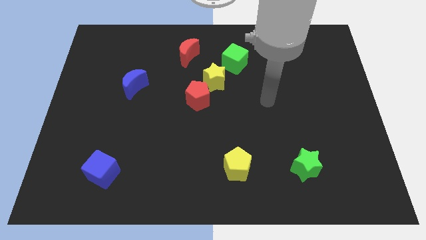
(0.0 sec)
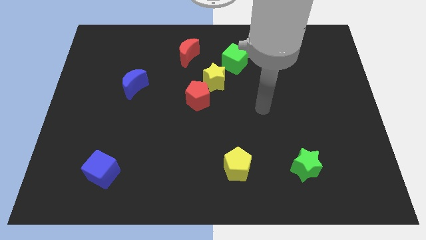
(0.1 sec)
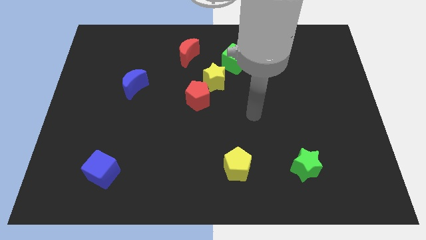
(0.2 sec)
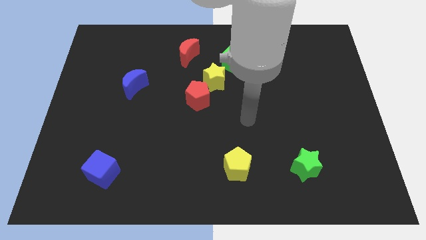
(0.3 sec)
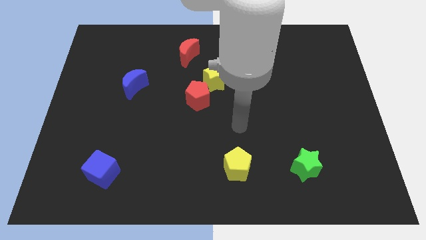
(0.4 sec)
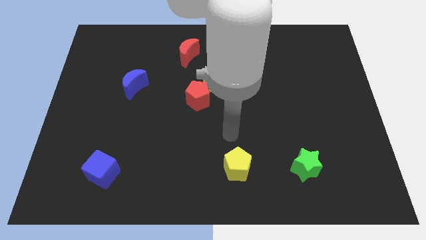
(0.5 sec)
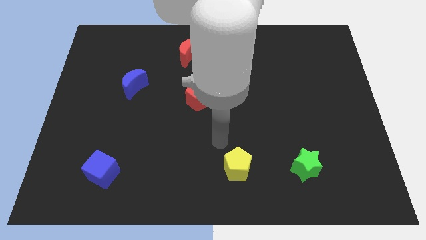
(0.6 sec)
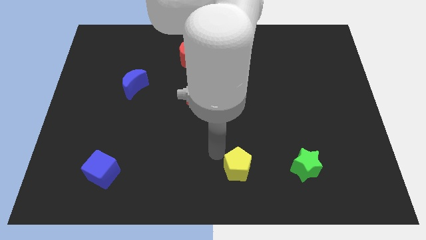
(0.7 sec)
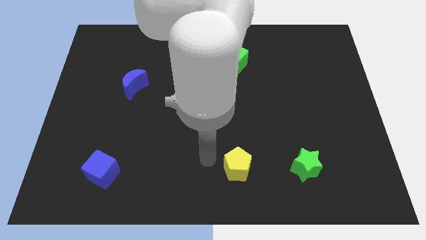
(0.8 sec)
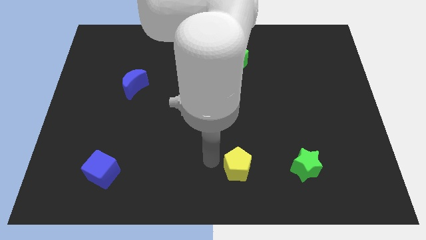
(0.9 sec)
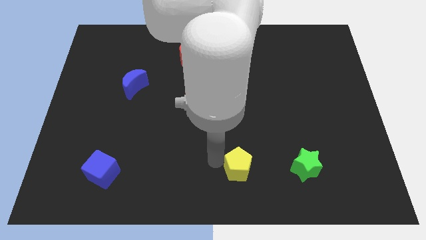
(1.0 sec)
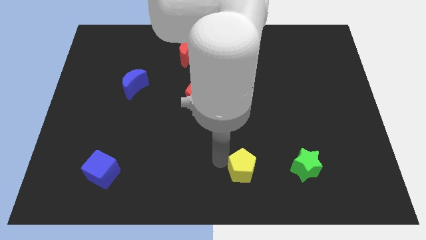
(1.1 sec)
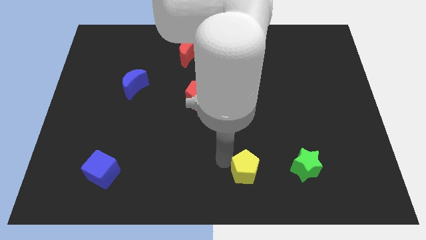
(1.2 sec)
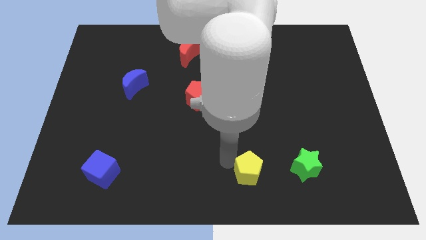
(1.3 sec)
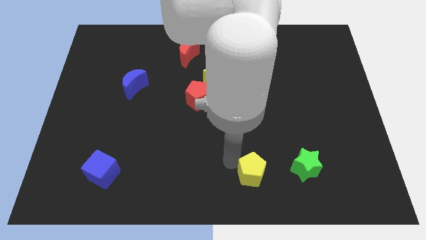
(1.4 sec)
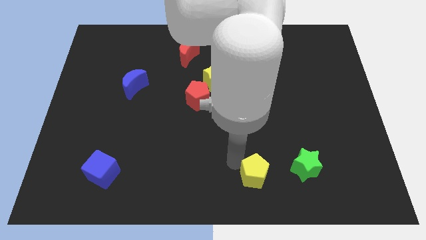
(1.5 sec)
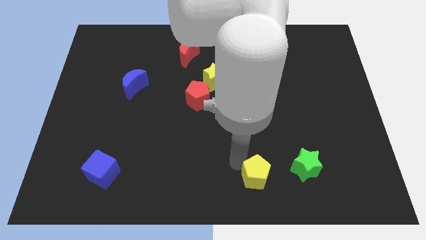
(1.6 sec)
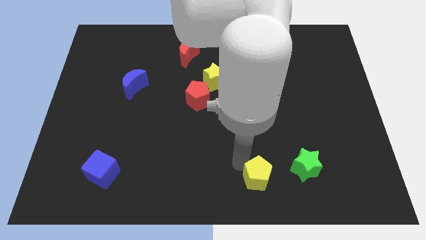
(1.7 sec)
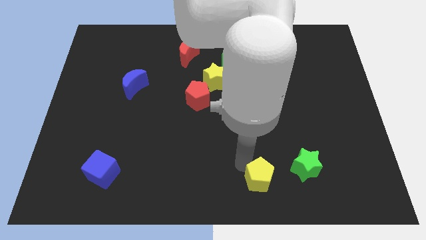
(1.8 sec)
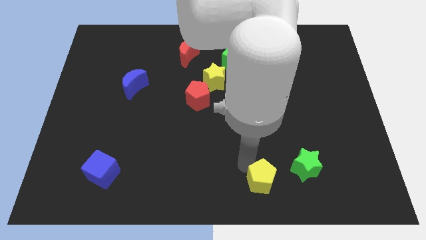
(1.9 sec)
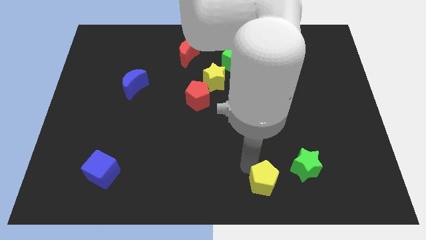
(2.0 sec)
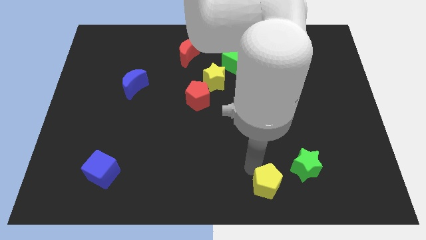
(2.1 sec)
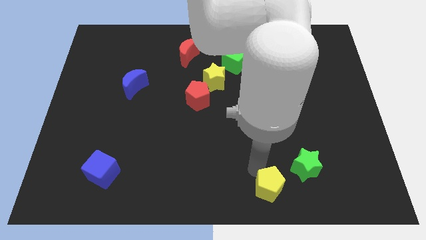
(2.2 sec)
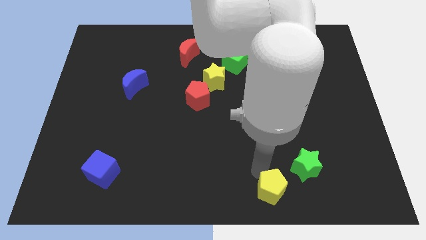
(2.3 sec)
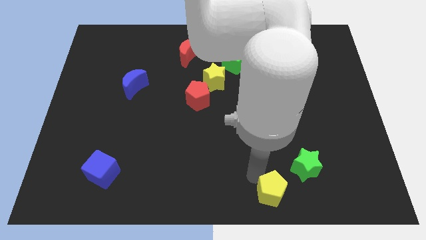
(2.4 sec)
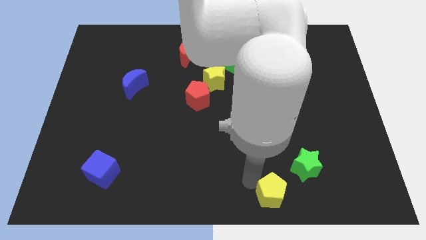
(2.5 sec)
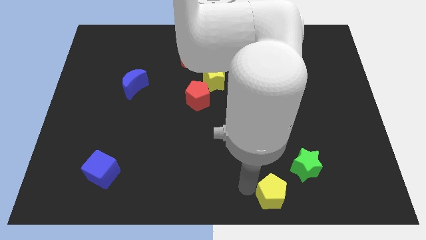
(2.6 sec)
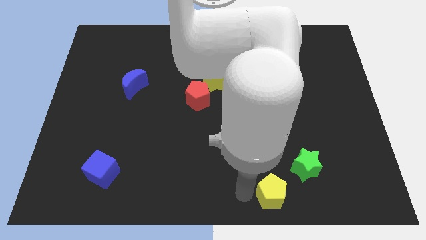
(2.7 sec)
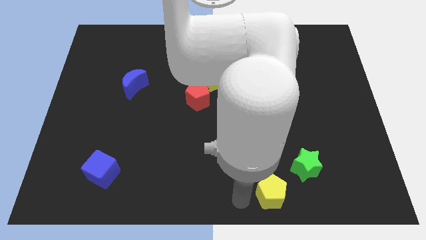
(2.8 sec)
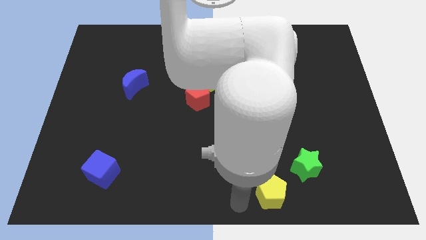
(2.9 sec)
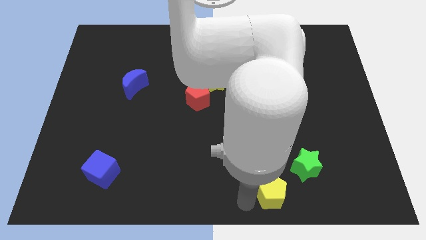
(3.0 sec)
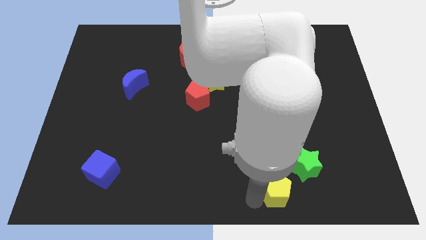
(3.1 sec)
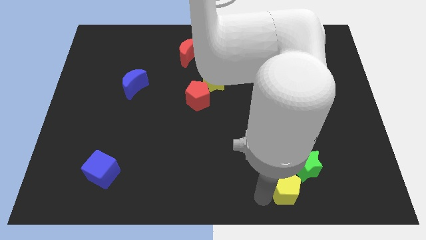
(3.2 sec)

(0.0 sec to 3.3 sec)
slightly slide the yellow pentagon to the right

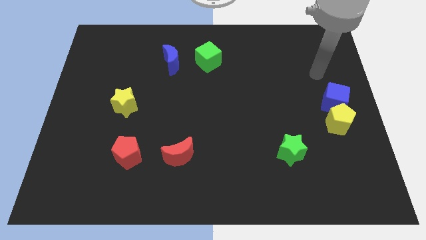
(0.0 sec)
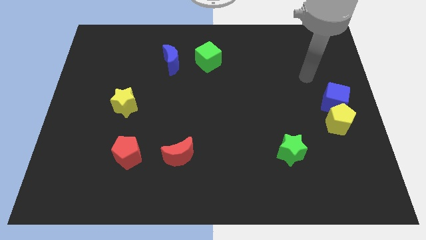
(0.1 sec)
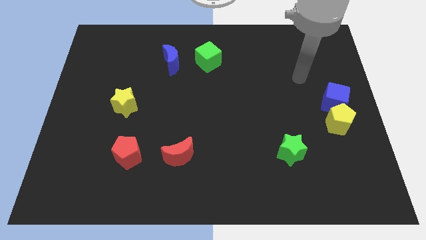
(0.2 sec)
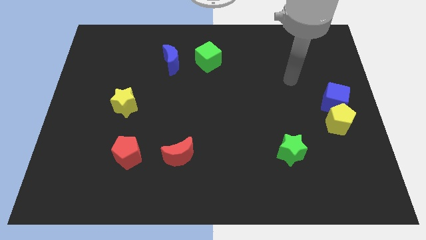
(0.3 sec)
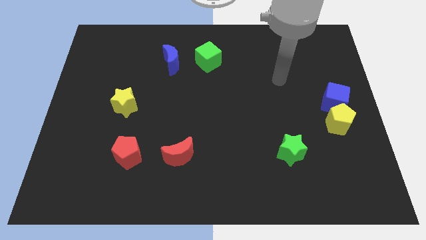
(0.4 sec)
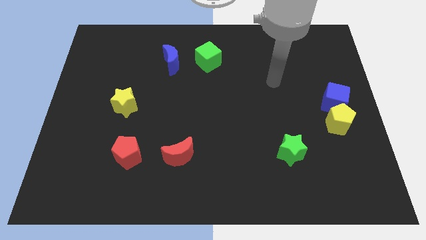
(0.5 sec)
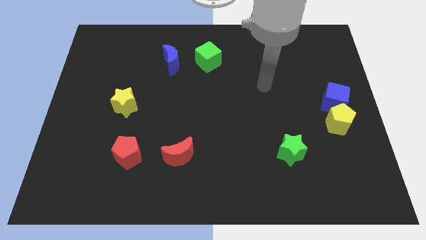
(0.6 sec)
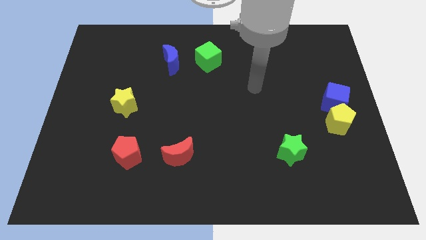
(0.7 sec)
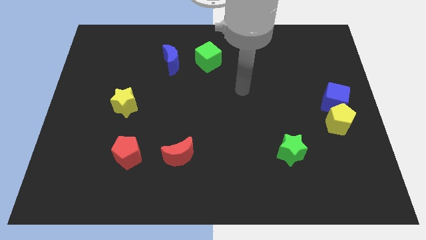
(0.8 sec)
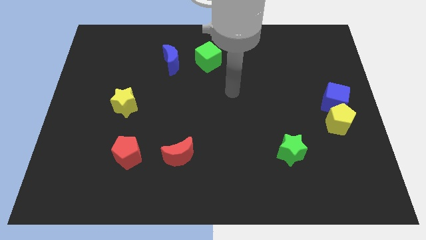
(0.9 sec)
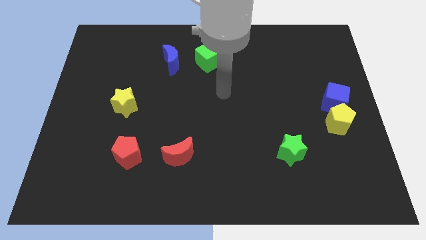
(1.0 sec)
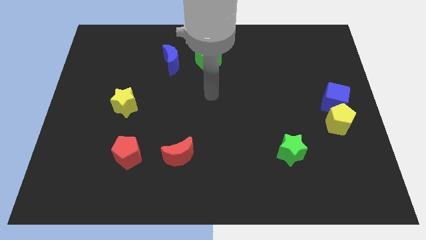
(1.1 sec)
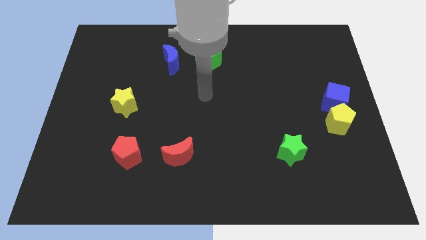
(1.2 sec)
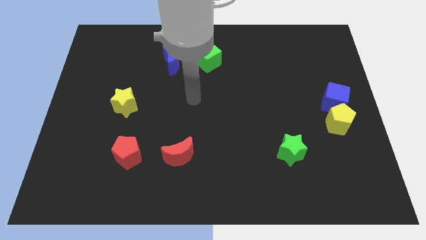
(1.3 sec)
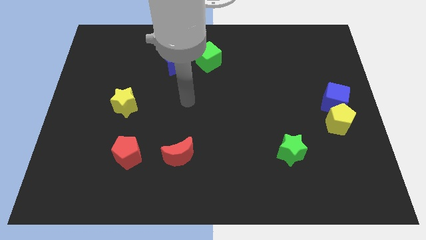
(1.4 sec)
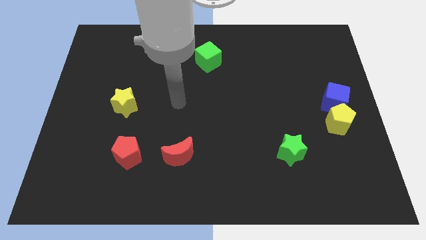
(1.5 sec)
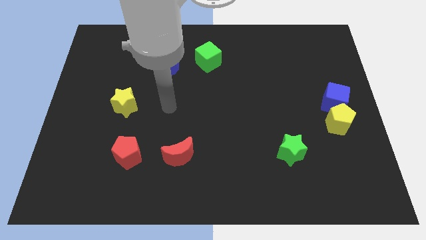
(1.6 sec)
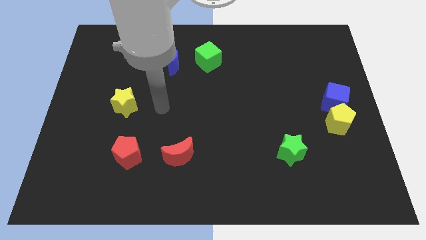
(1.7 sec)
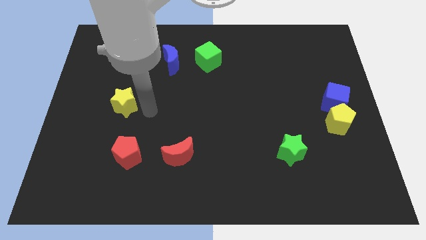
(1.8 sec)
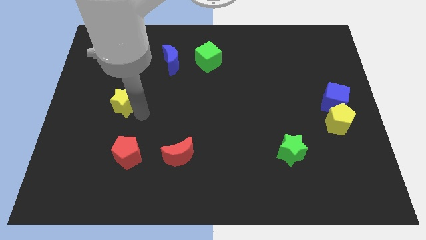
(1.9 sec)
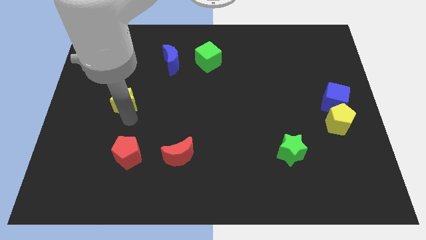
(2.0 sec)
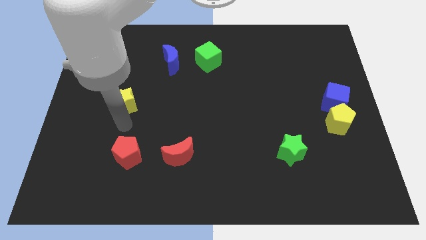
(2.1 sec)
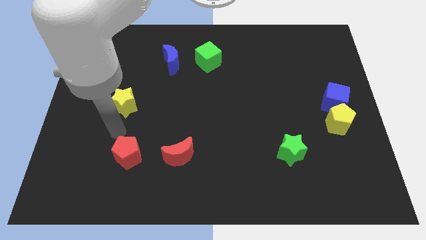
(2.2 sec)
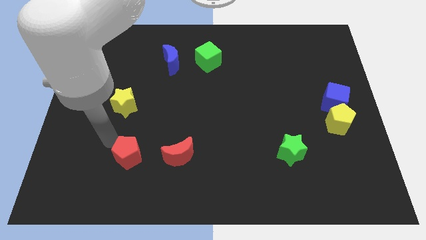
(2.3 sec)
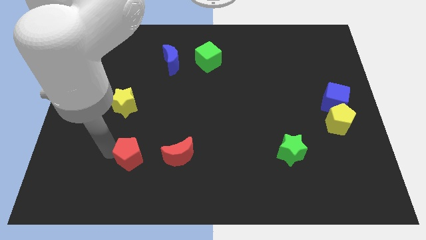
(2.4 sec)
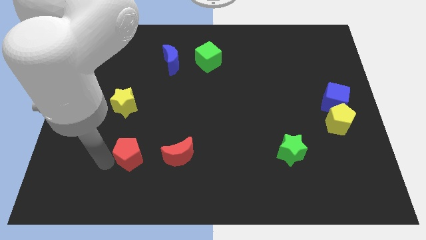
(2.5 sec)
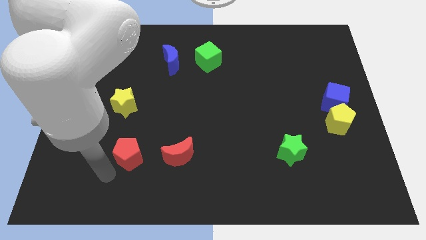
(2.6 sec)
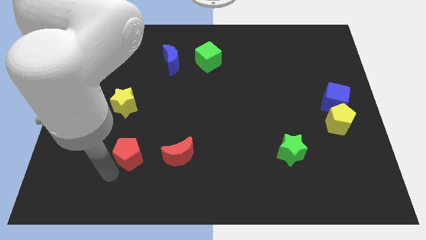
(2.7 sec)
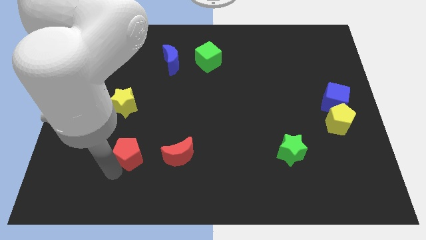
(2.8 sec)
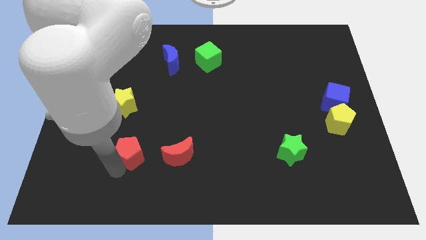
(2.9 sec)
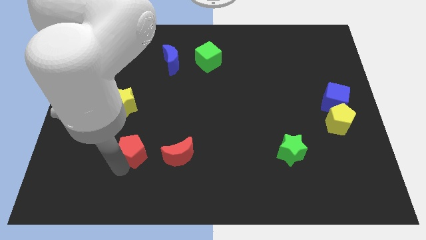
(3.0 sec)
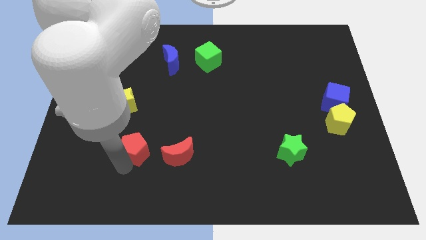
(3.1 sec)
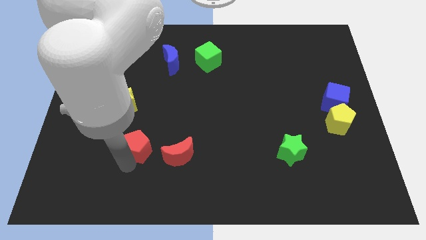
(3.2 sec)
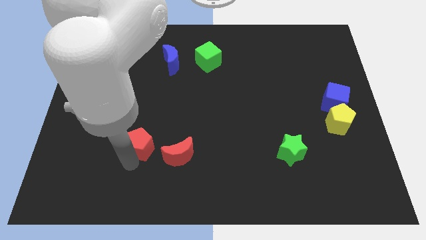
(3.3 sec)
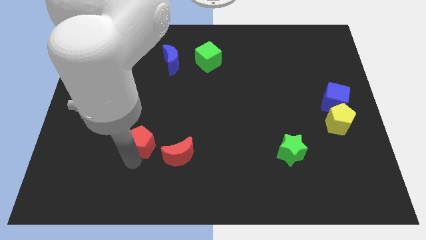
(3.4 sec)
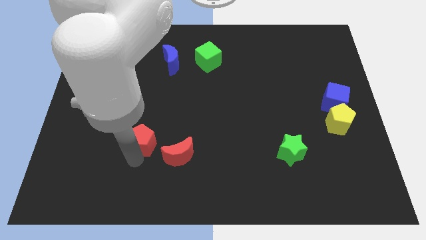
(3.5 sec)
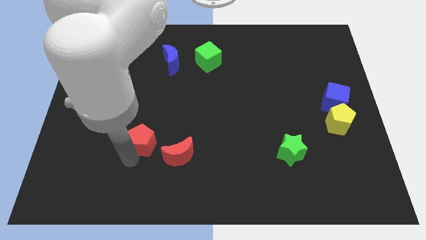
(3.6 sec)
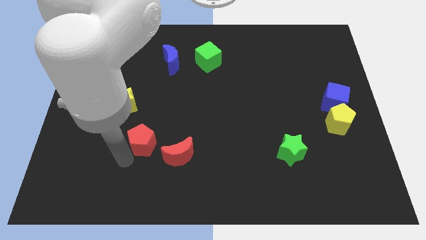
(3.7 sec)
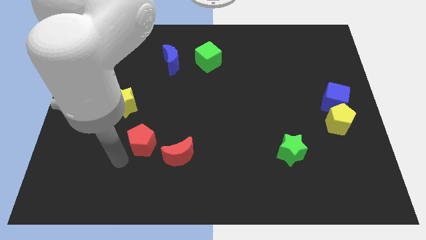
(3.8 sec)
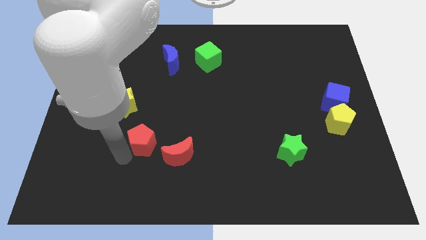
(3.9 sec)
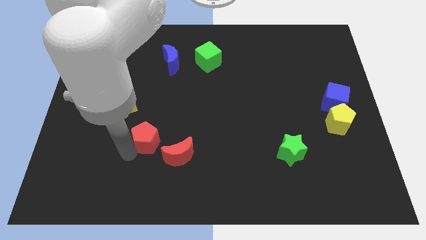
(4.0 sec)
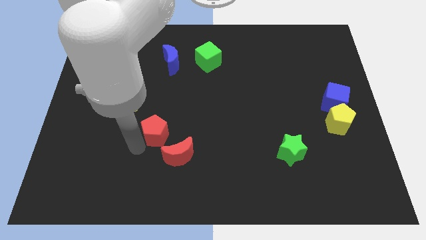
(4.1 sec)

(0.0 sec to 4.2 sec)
slide the red pentagon diagonally upwards and right a little
